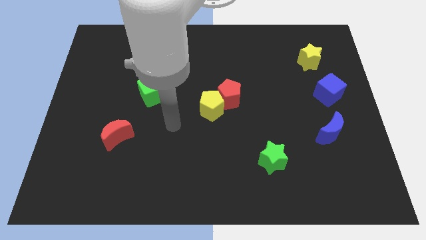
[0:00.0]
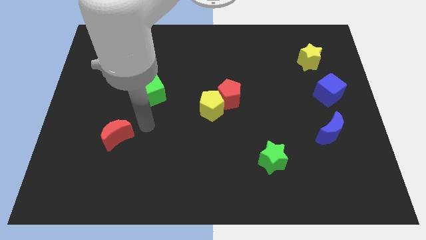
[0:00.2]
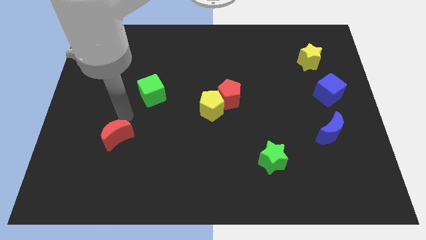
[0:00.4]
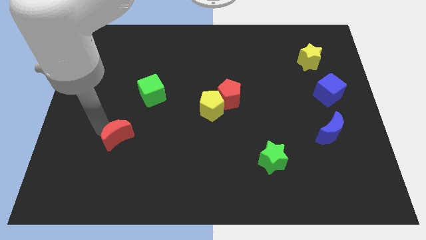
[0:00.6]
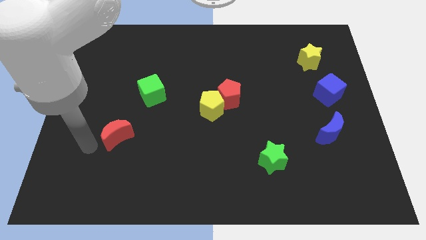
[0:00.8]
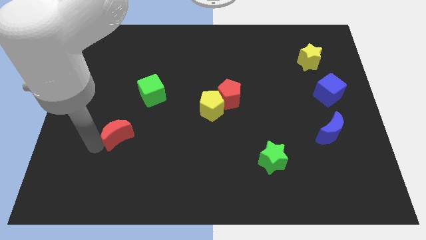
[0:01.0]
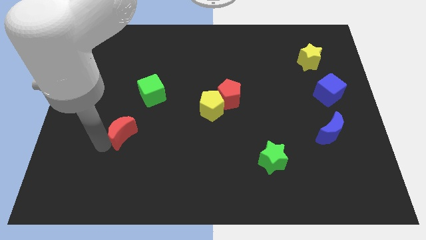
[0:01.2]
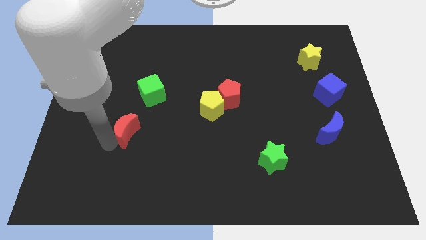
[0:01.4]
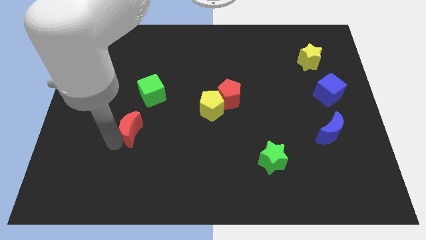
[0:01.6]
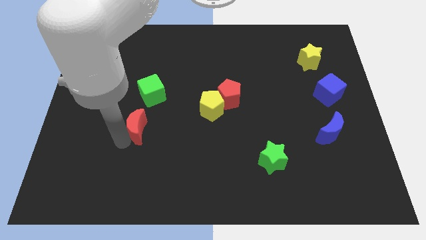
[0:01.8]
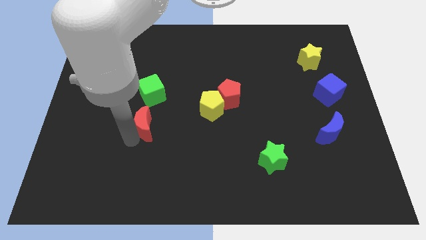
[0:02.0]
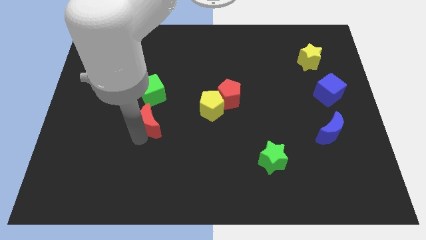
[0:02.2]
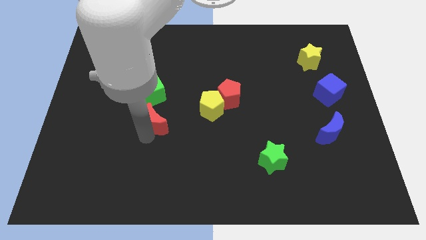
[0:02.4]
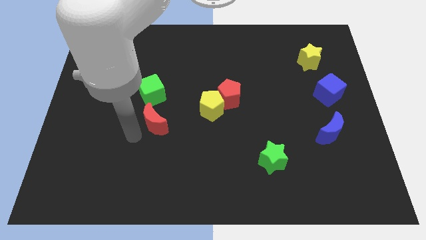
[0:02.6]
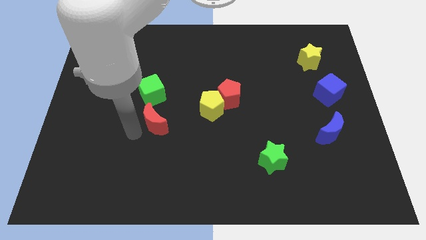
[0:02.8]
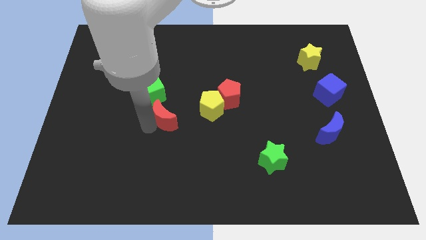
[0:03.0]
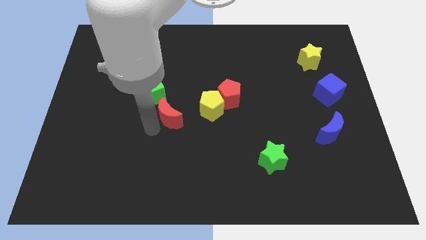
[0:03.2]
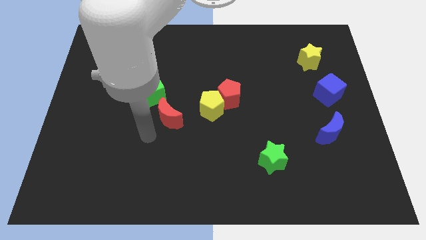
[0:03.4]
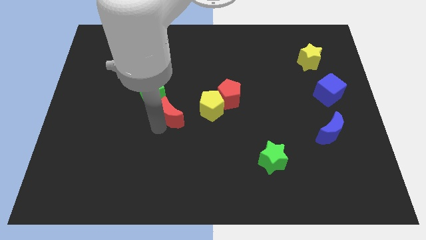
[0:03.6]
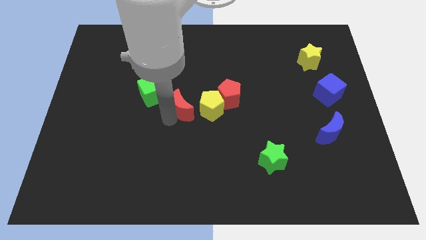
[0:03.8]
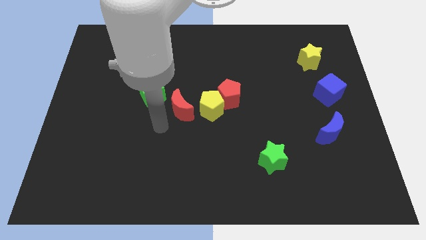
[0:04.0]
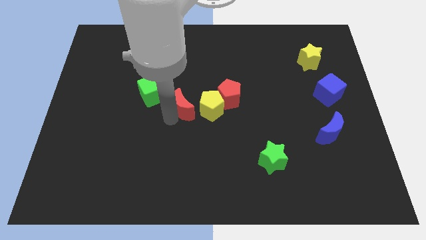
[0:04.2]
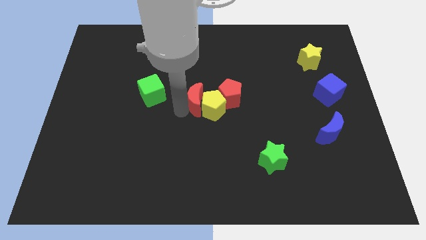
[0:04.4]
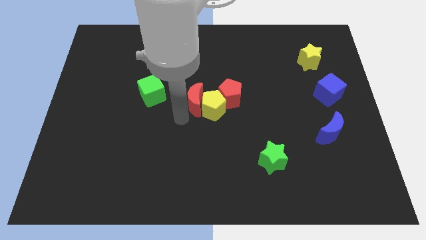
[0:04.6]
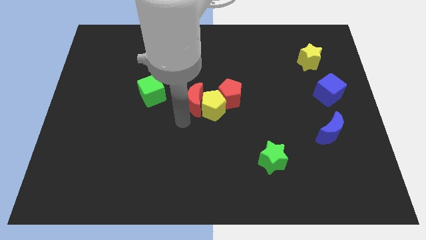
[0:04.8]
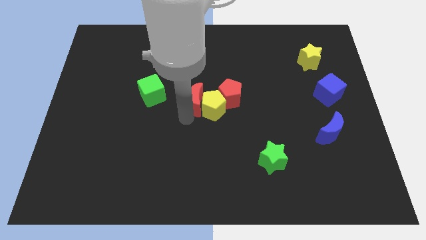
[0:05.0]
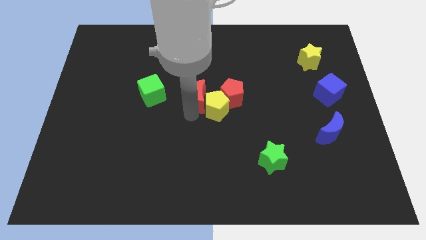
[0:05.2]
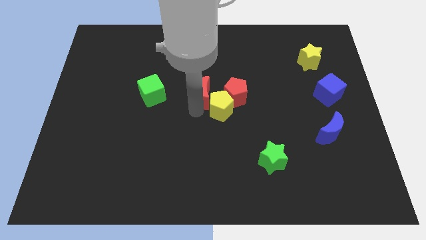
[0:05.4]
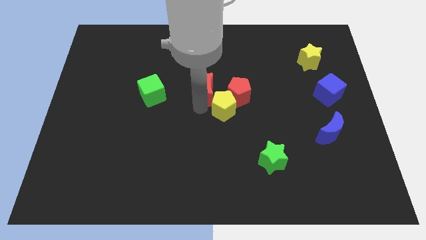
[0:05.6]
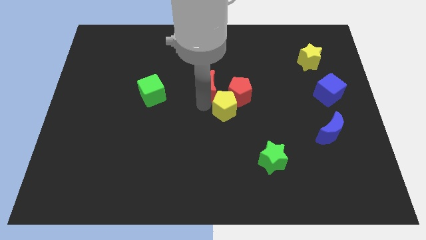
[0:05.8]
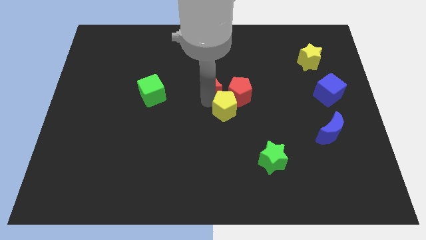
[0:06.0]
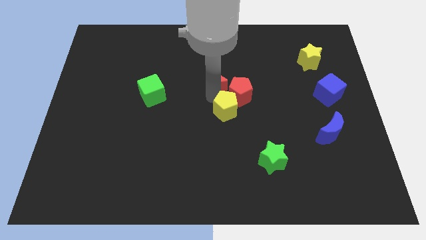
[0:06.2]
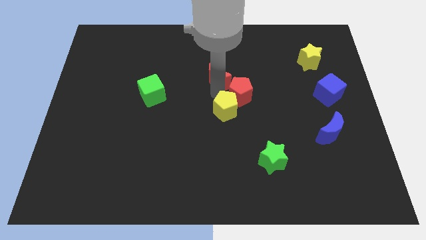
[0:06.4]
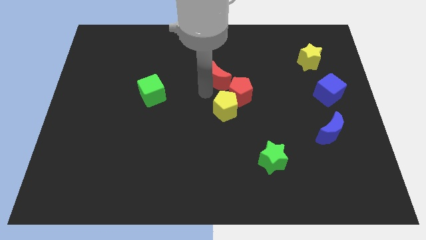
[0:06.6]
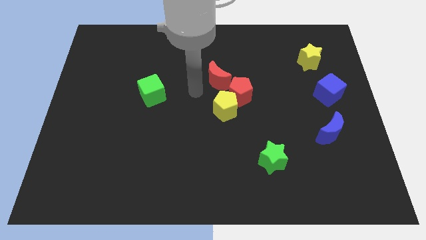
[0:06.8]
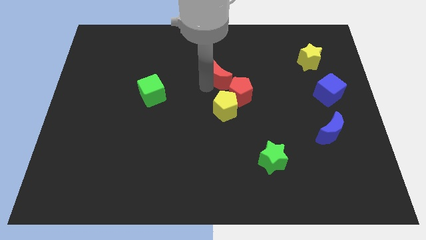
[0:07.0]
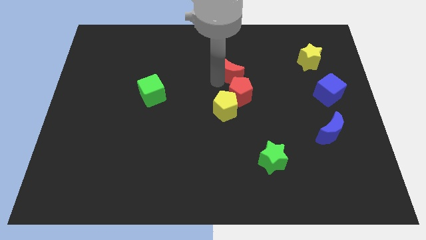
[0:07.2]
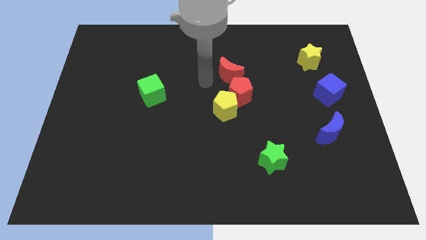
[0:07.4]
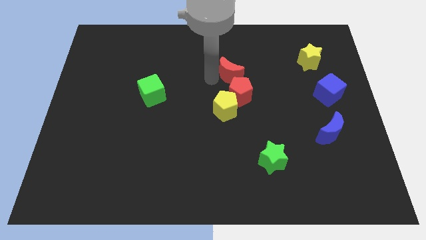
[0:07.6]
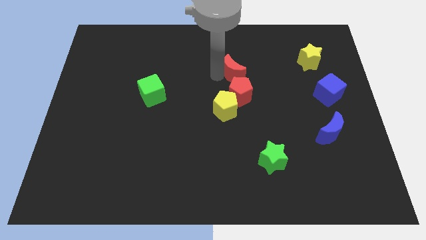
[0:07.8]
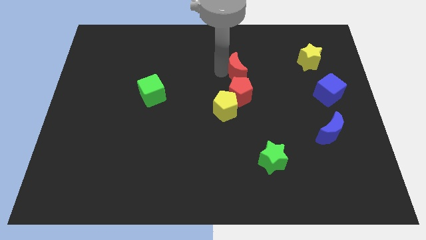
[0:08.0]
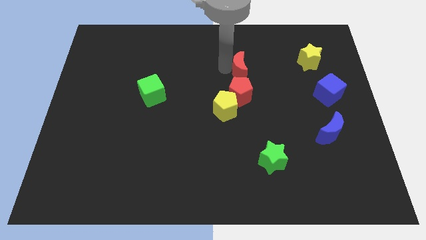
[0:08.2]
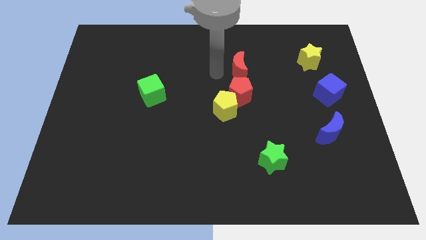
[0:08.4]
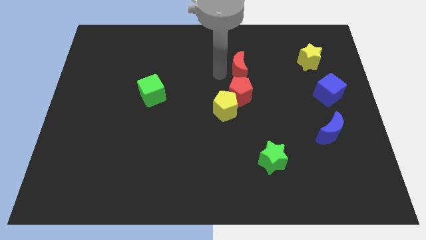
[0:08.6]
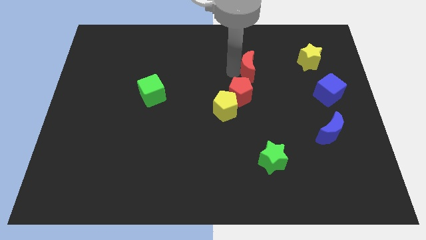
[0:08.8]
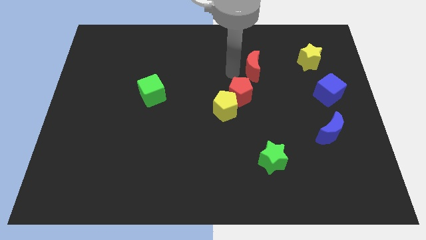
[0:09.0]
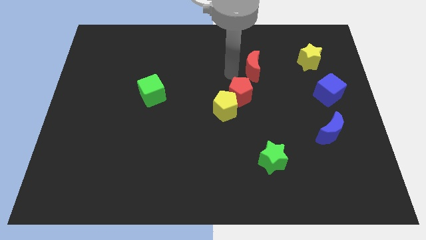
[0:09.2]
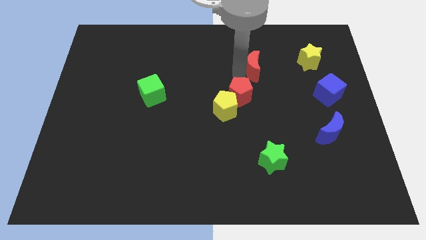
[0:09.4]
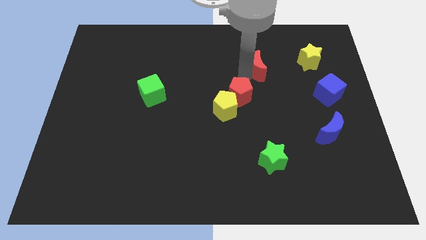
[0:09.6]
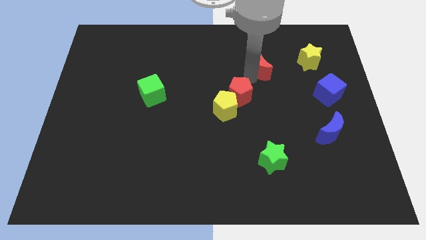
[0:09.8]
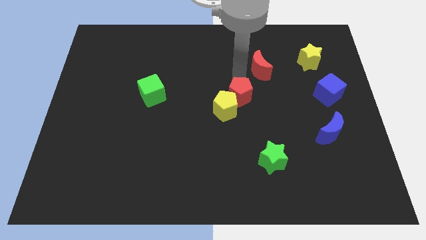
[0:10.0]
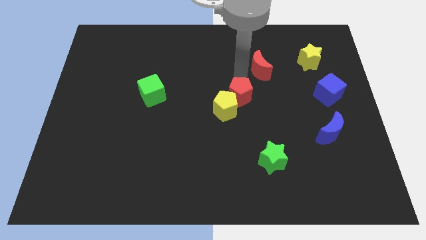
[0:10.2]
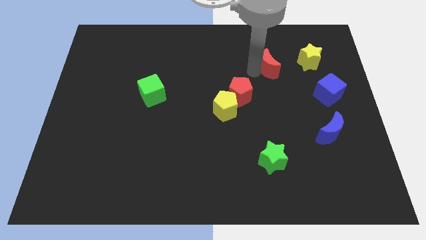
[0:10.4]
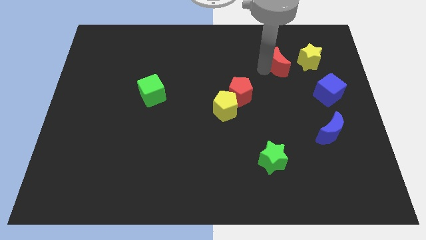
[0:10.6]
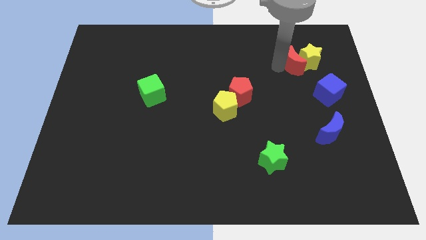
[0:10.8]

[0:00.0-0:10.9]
push the red moon close to the yellow star

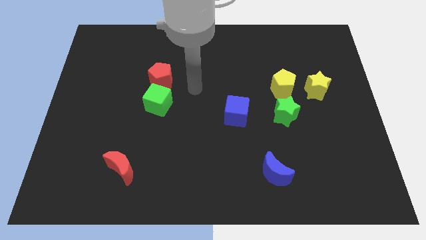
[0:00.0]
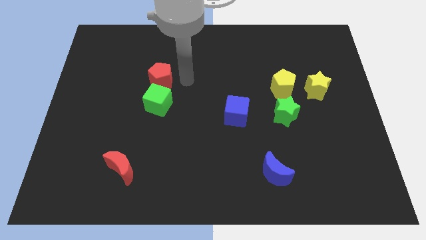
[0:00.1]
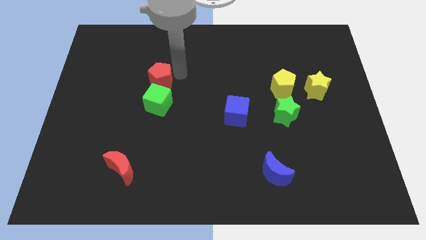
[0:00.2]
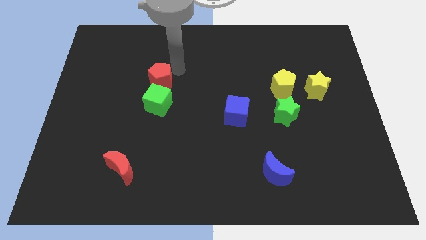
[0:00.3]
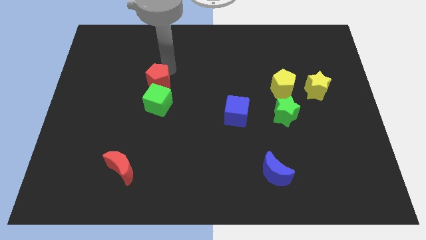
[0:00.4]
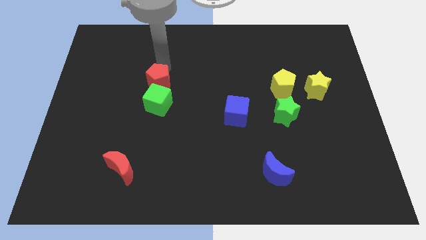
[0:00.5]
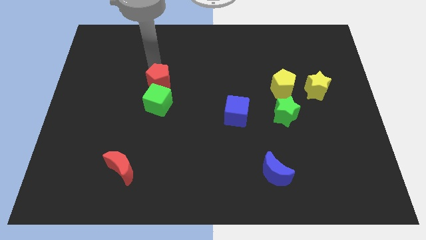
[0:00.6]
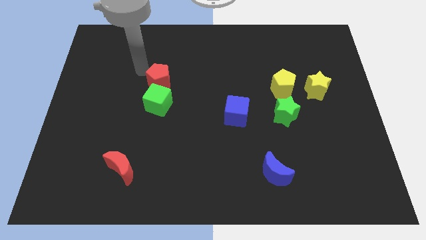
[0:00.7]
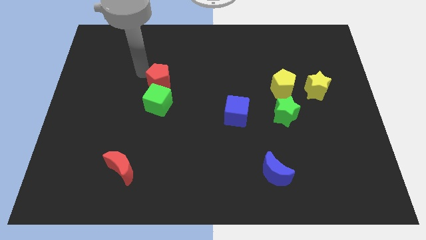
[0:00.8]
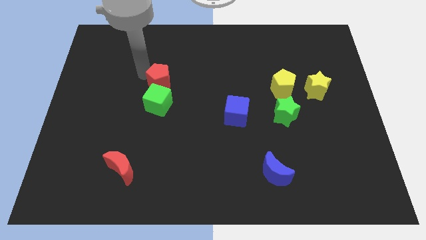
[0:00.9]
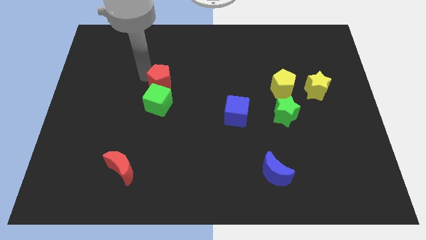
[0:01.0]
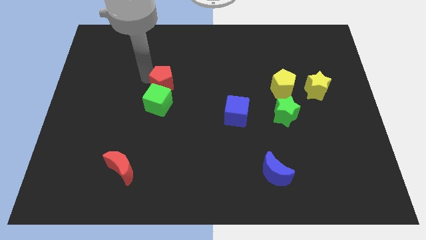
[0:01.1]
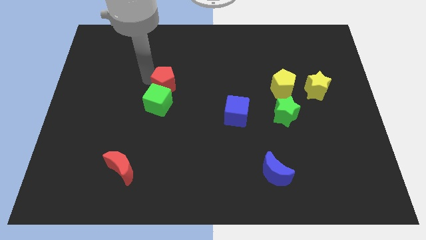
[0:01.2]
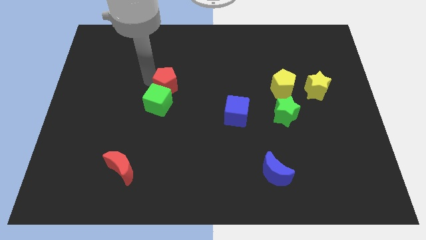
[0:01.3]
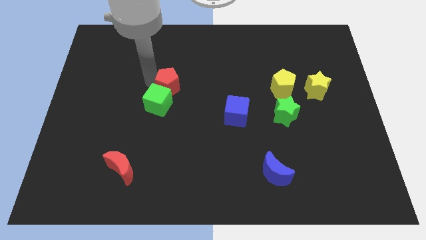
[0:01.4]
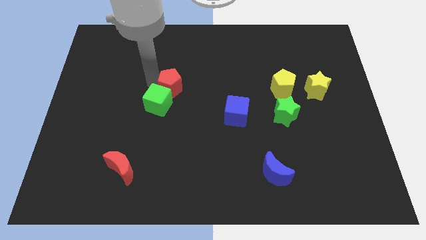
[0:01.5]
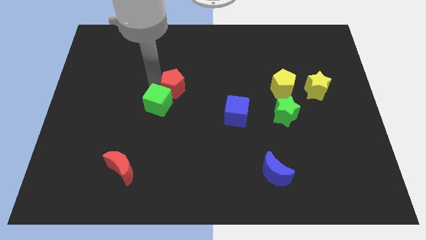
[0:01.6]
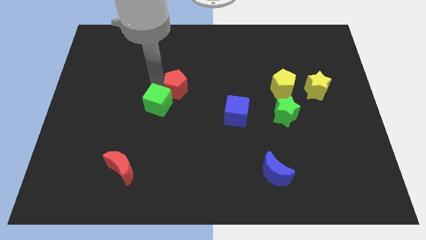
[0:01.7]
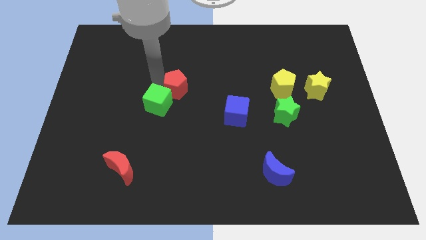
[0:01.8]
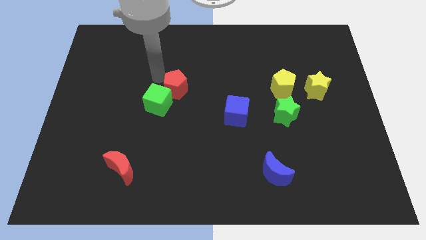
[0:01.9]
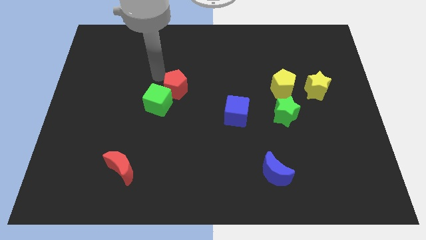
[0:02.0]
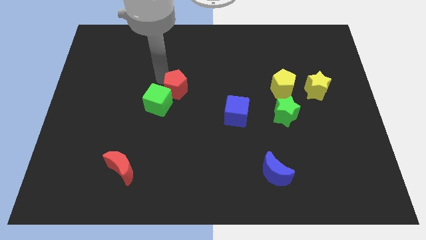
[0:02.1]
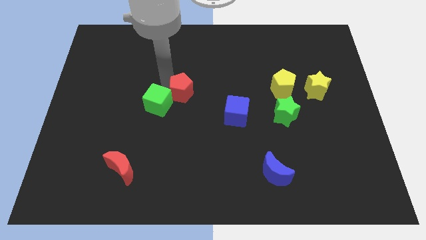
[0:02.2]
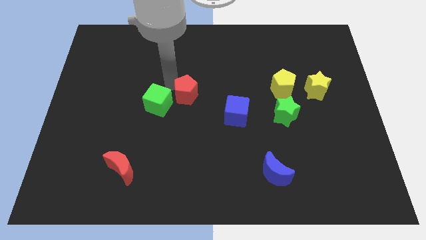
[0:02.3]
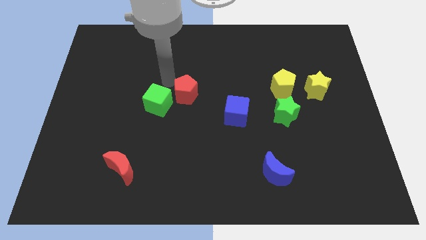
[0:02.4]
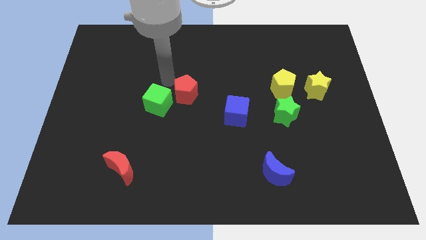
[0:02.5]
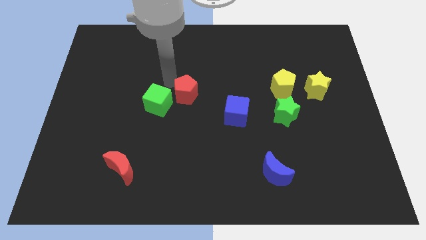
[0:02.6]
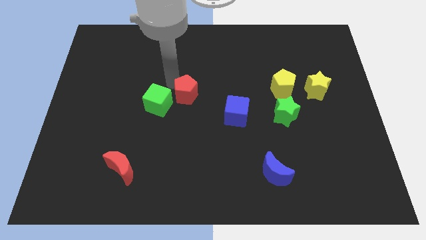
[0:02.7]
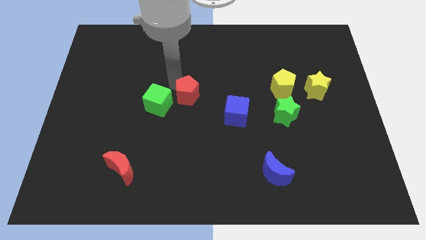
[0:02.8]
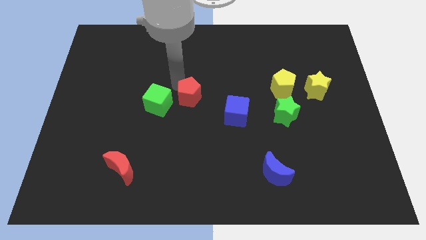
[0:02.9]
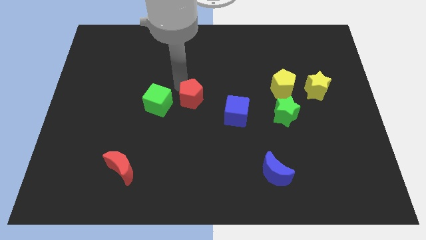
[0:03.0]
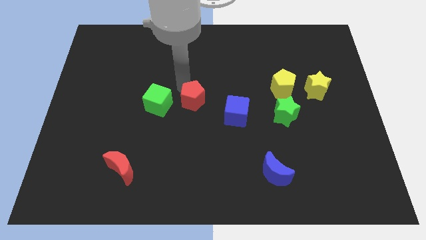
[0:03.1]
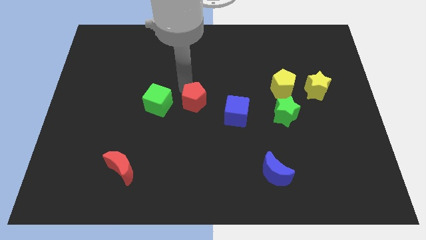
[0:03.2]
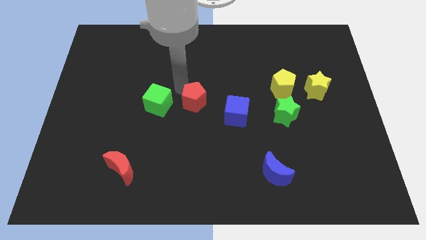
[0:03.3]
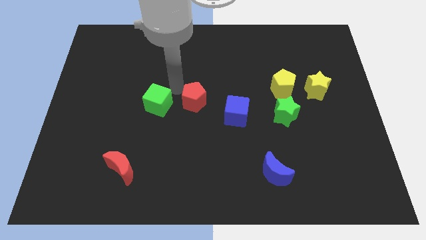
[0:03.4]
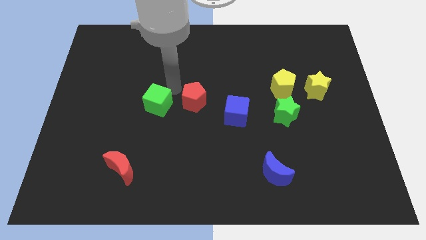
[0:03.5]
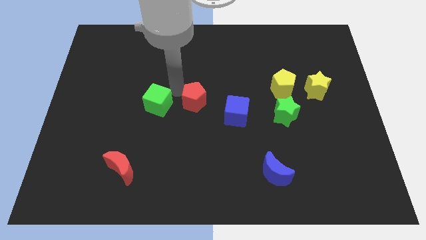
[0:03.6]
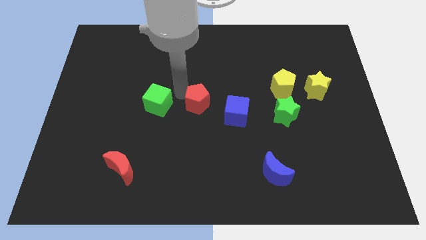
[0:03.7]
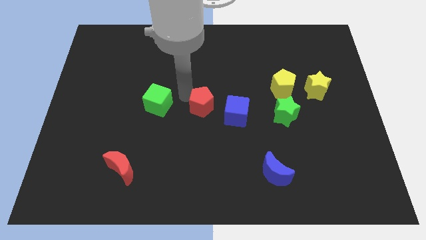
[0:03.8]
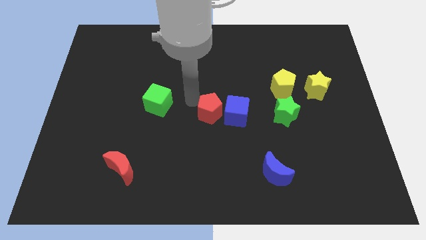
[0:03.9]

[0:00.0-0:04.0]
put the red pentagon towards the blue cube
